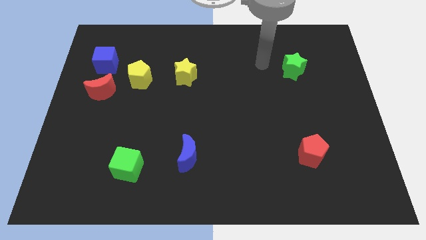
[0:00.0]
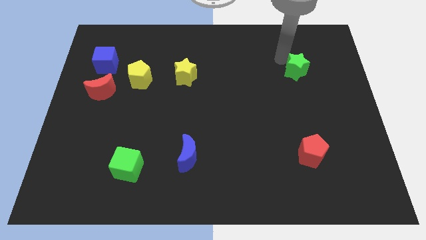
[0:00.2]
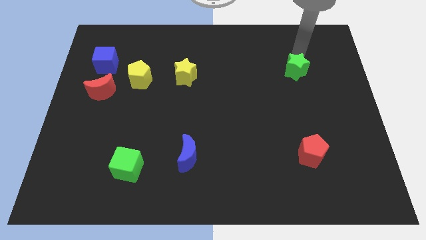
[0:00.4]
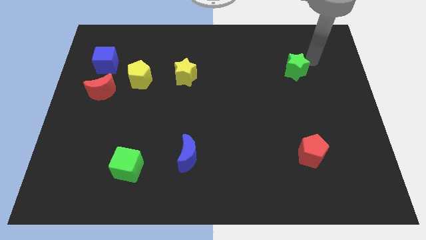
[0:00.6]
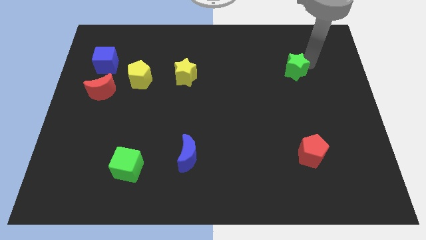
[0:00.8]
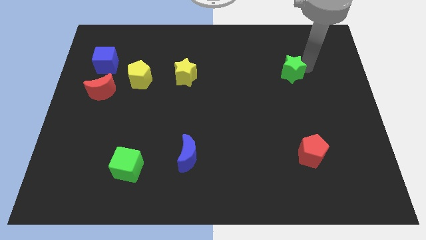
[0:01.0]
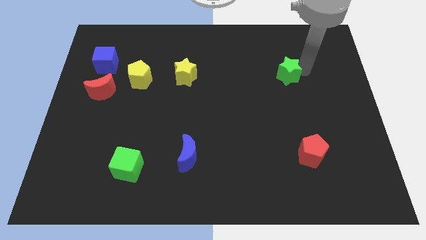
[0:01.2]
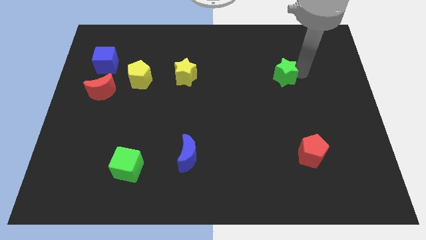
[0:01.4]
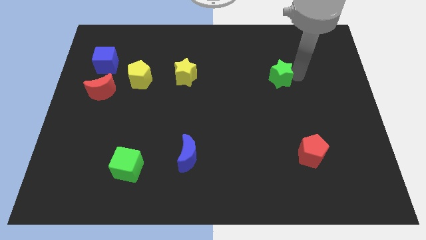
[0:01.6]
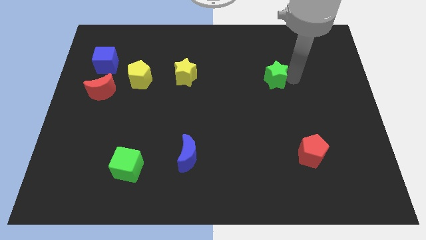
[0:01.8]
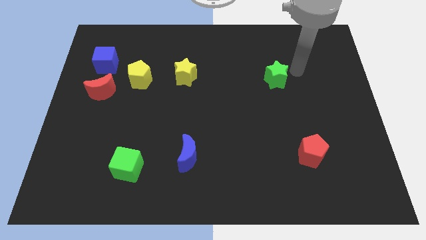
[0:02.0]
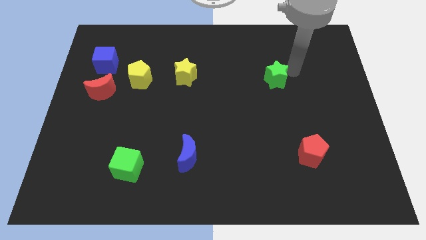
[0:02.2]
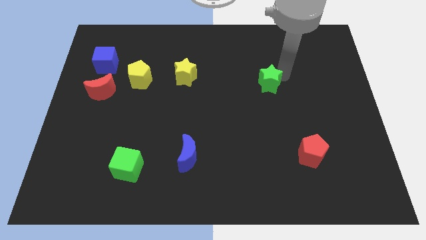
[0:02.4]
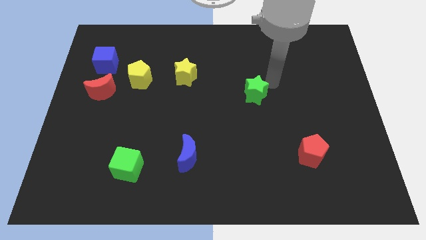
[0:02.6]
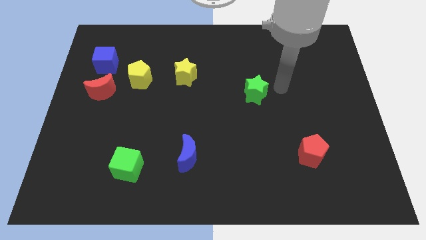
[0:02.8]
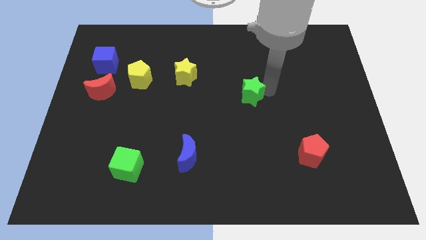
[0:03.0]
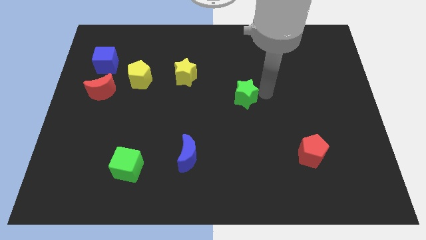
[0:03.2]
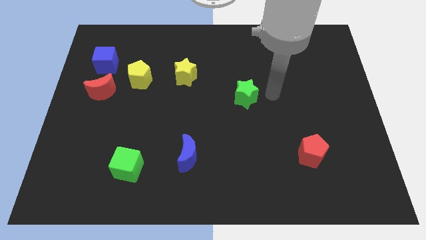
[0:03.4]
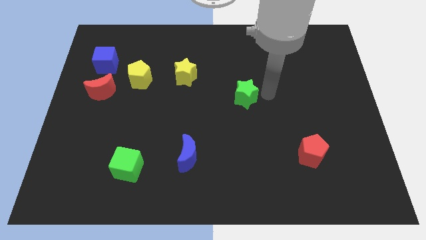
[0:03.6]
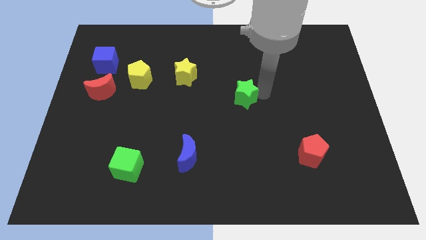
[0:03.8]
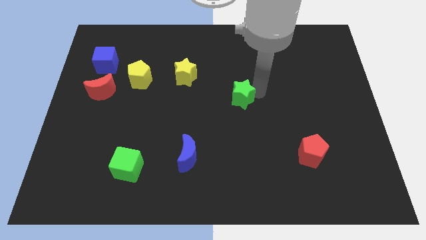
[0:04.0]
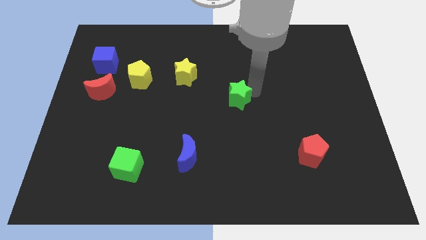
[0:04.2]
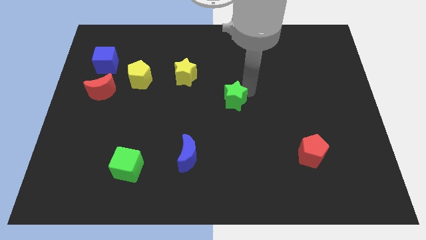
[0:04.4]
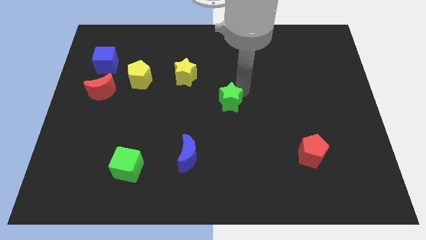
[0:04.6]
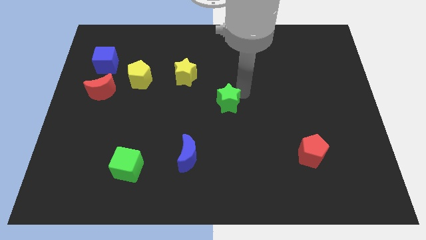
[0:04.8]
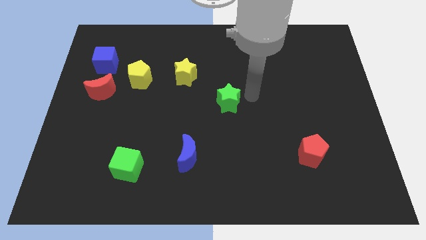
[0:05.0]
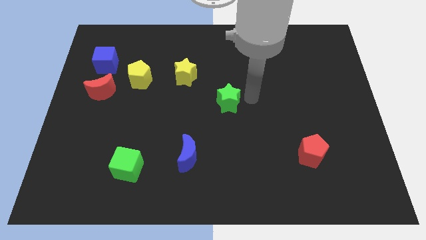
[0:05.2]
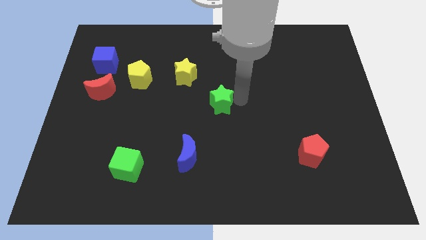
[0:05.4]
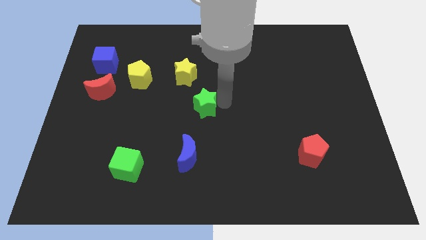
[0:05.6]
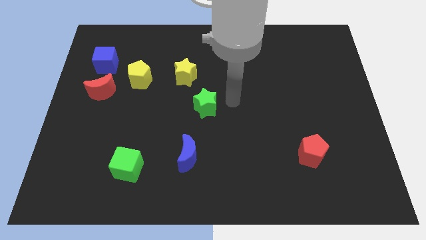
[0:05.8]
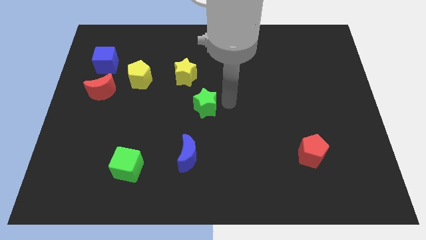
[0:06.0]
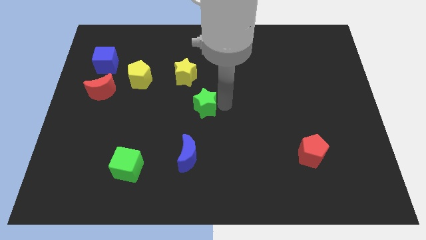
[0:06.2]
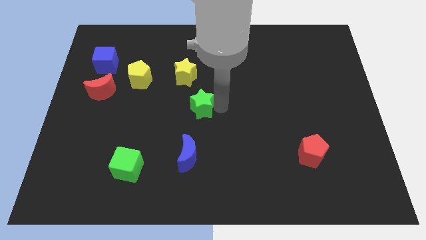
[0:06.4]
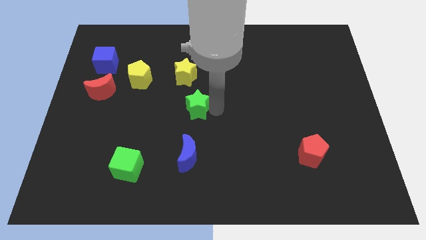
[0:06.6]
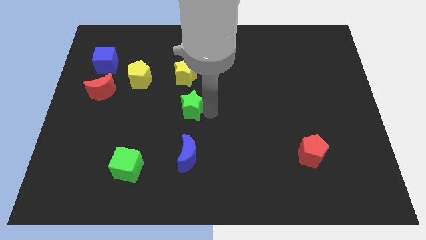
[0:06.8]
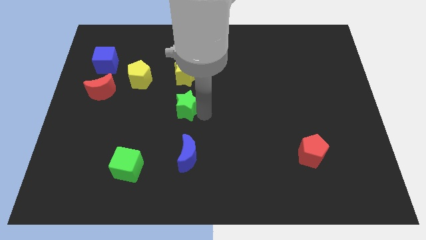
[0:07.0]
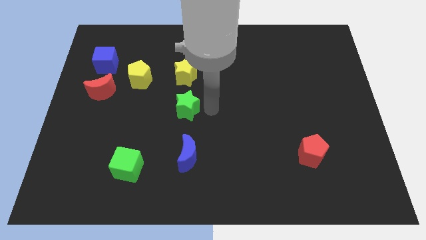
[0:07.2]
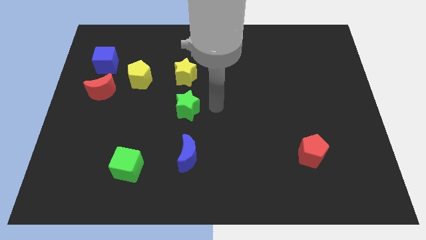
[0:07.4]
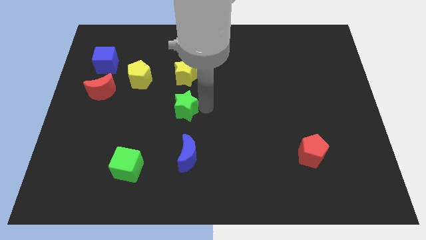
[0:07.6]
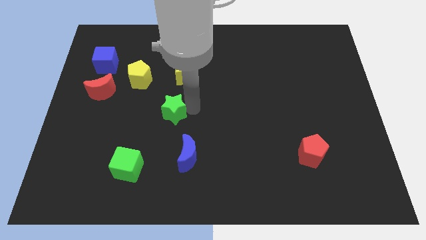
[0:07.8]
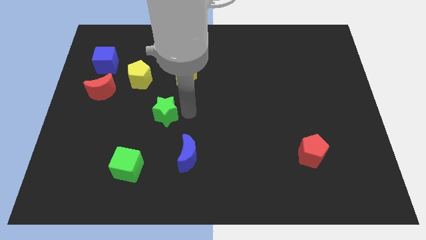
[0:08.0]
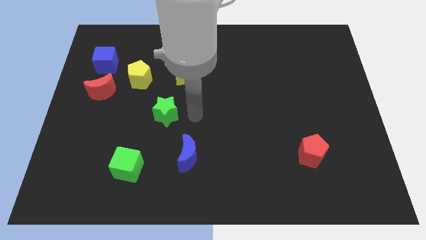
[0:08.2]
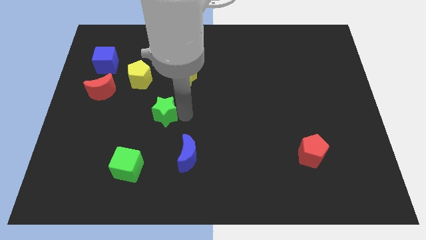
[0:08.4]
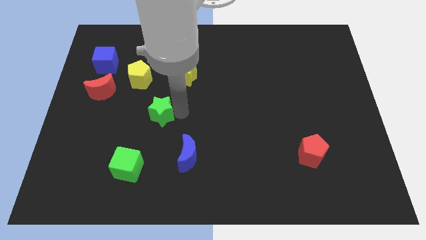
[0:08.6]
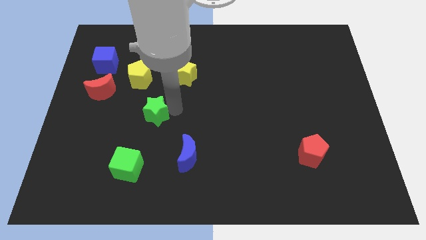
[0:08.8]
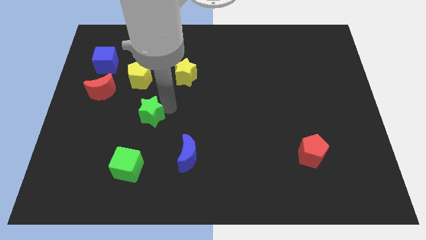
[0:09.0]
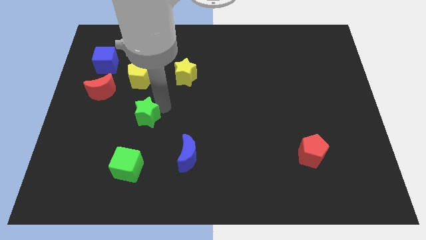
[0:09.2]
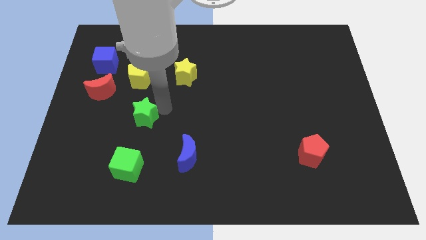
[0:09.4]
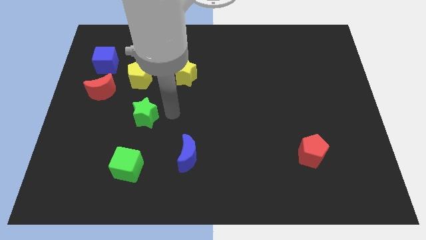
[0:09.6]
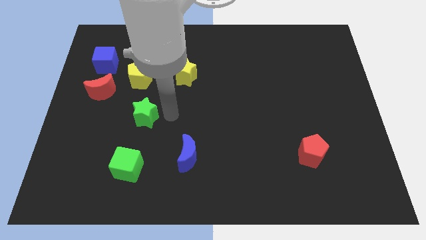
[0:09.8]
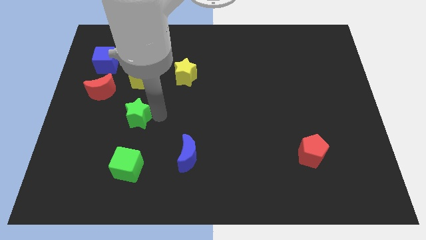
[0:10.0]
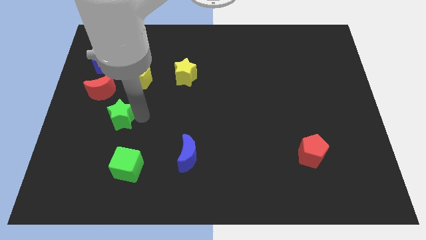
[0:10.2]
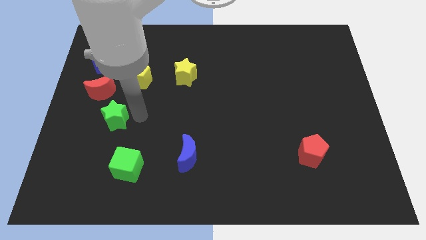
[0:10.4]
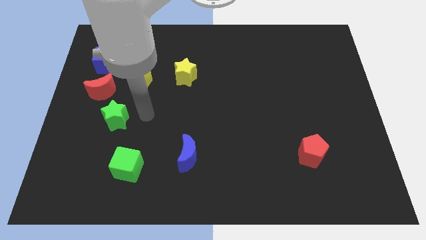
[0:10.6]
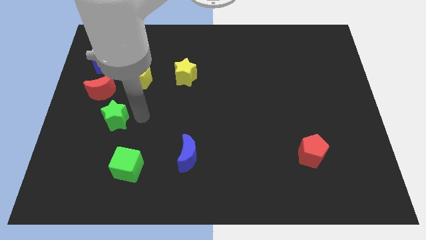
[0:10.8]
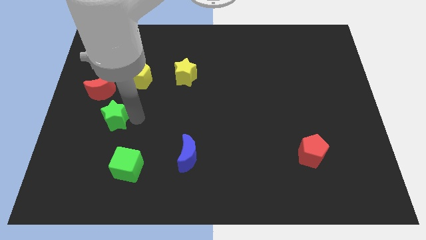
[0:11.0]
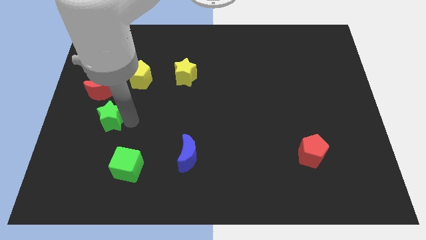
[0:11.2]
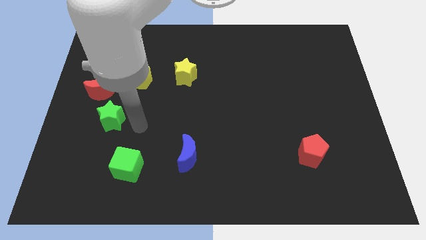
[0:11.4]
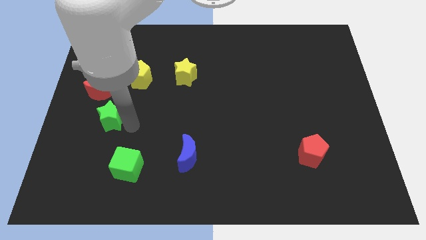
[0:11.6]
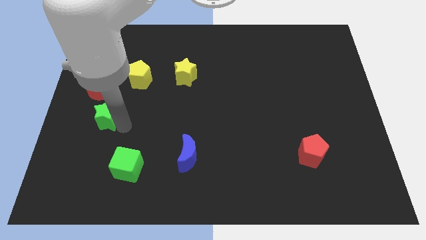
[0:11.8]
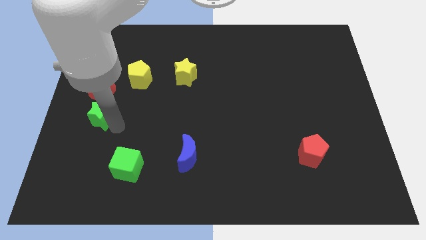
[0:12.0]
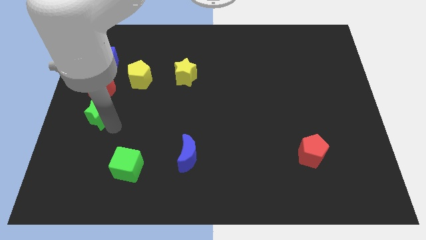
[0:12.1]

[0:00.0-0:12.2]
push the green star to the left side of the board
